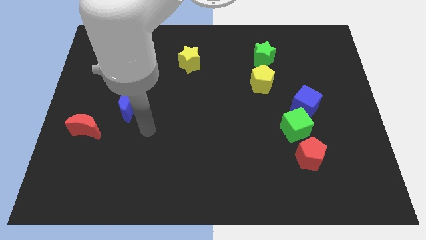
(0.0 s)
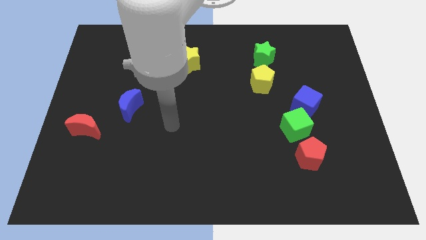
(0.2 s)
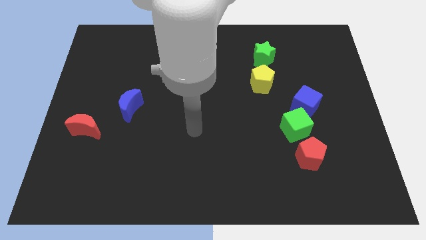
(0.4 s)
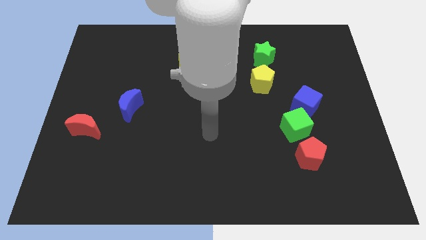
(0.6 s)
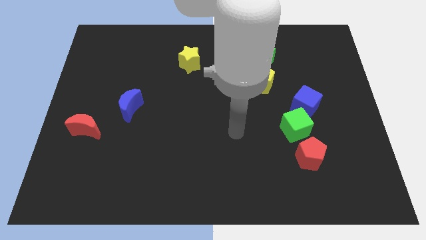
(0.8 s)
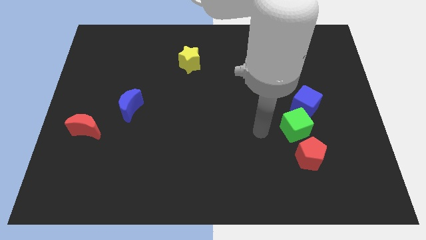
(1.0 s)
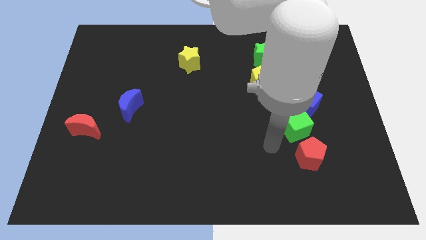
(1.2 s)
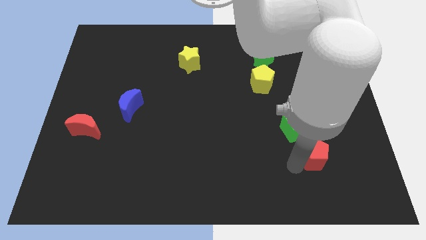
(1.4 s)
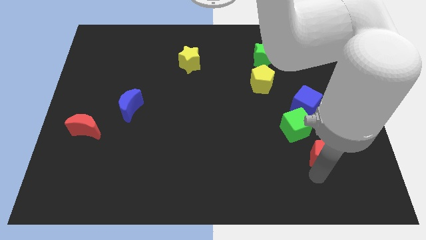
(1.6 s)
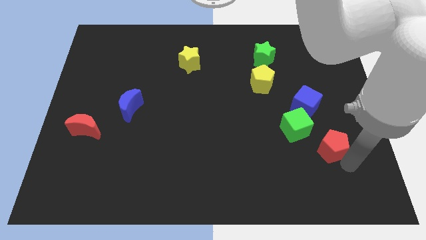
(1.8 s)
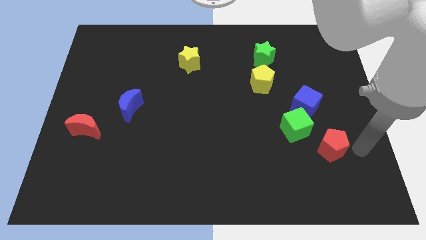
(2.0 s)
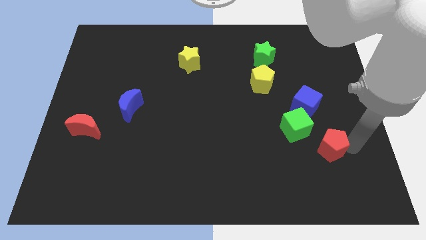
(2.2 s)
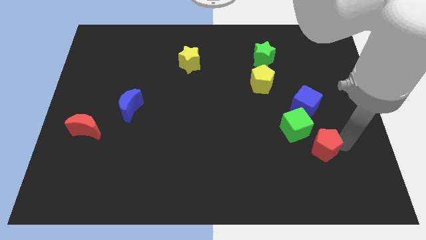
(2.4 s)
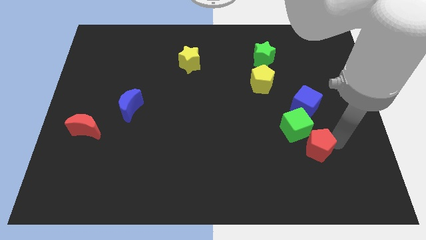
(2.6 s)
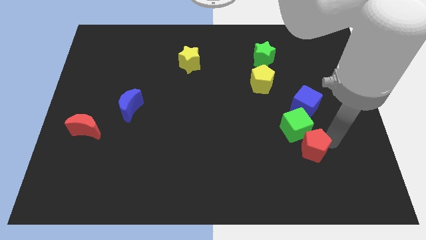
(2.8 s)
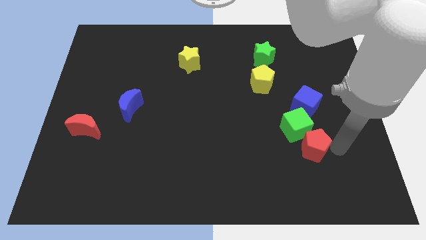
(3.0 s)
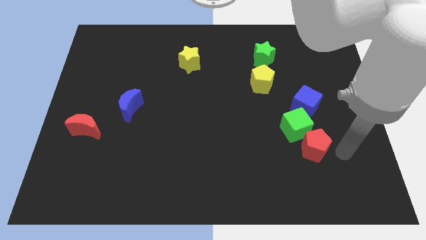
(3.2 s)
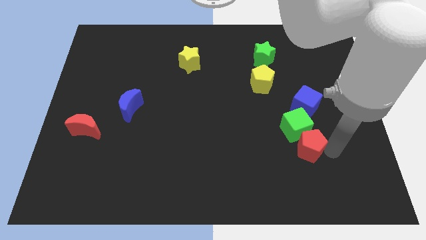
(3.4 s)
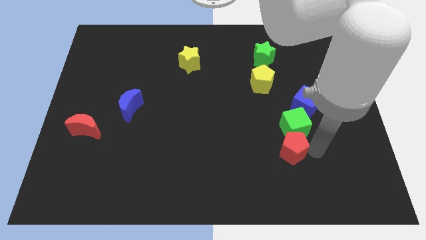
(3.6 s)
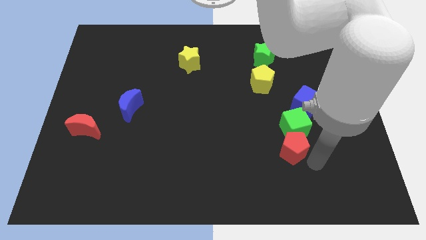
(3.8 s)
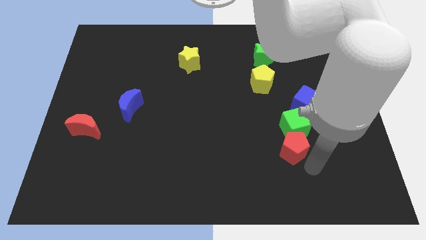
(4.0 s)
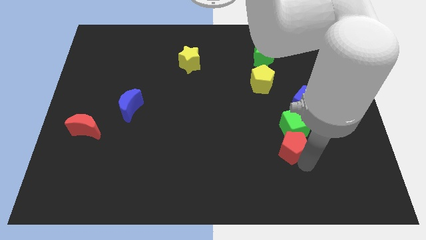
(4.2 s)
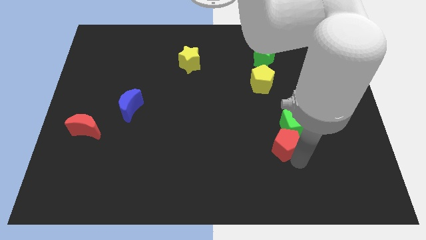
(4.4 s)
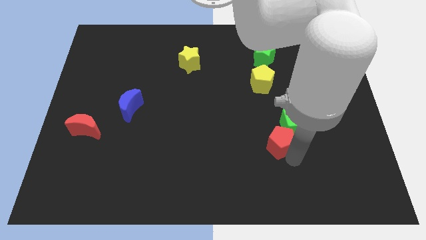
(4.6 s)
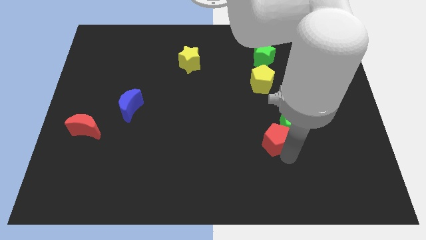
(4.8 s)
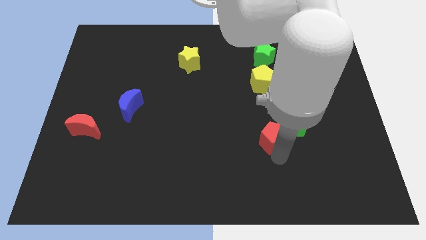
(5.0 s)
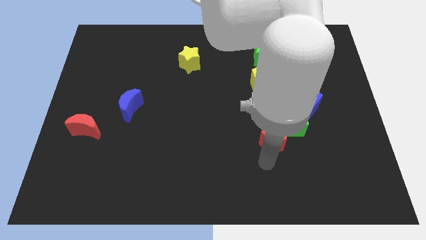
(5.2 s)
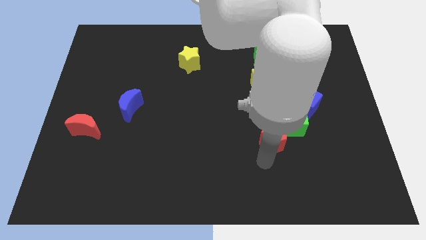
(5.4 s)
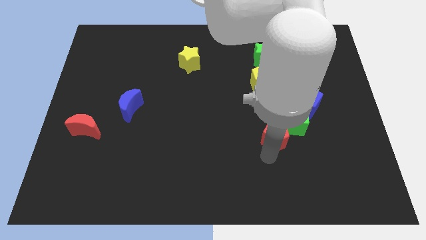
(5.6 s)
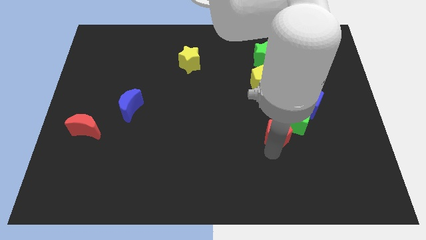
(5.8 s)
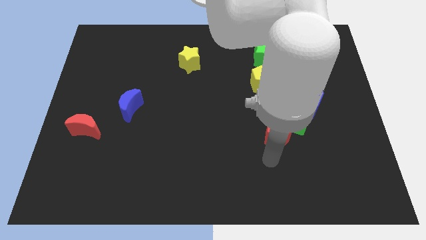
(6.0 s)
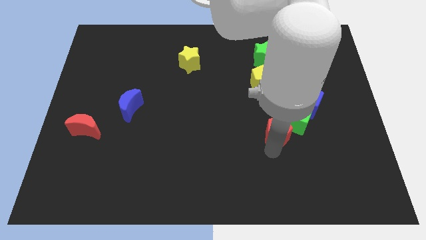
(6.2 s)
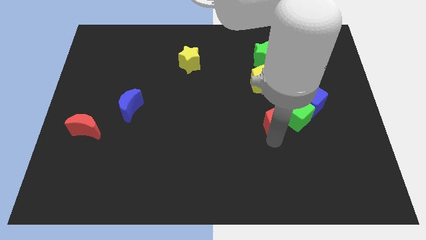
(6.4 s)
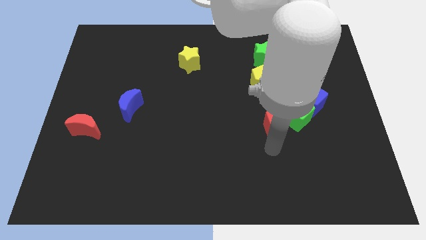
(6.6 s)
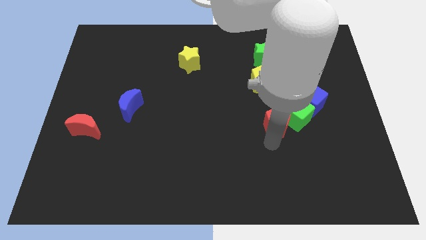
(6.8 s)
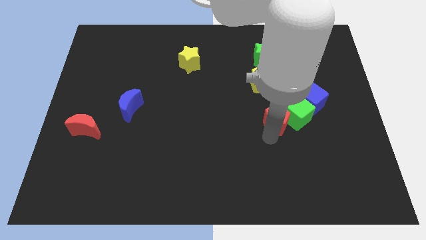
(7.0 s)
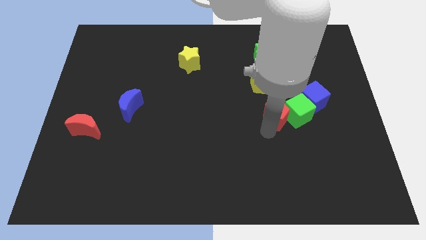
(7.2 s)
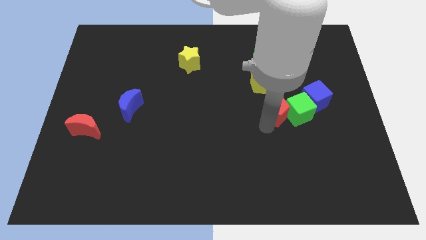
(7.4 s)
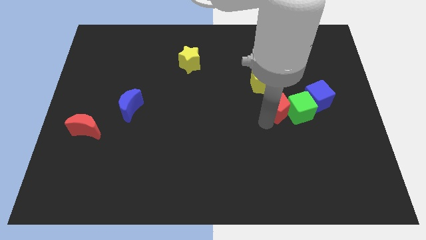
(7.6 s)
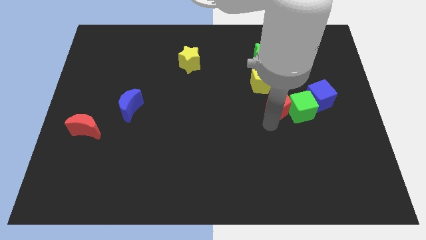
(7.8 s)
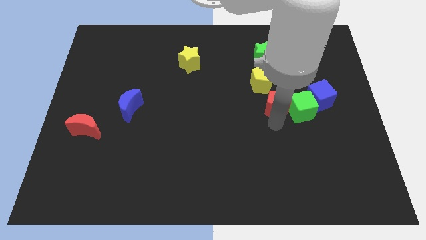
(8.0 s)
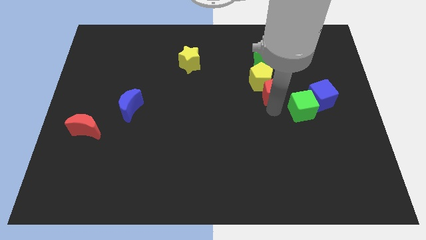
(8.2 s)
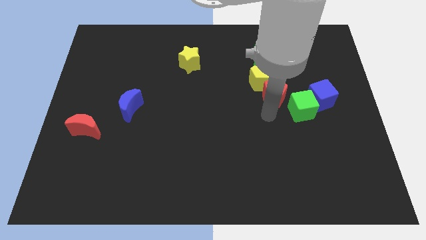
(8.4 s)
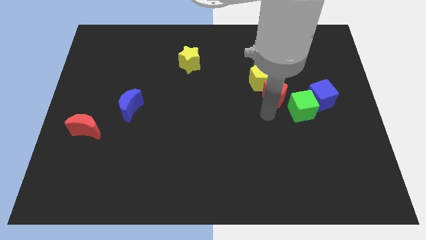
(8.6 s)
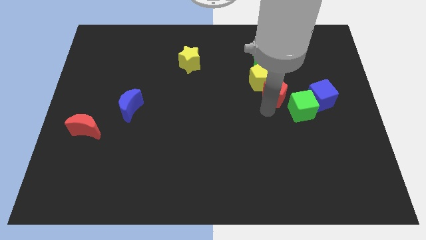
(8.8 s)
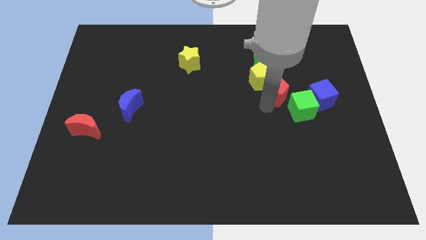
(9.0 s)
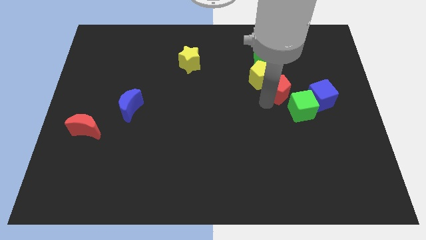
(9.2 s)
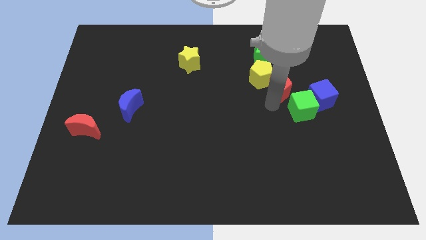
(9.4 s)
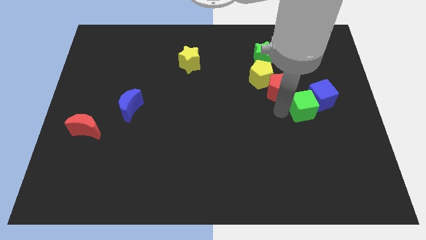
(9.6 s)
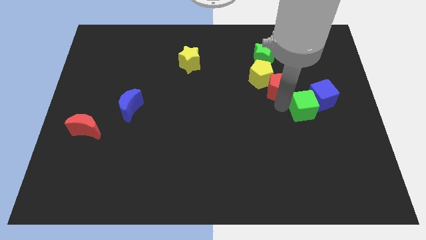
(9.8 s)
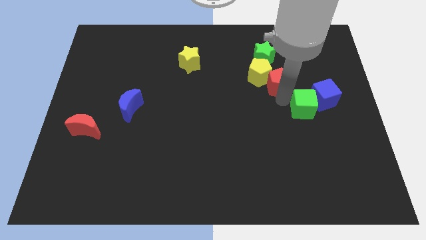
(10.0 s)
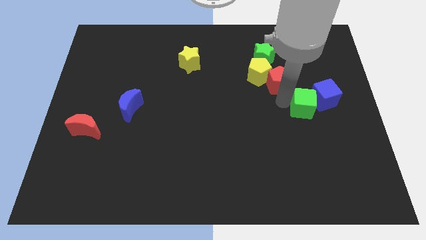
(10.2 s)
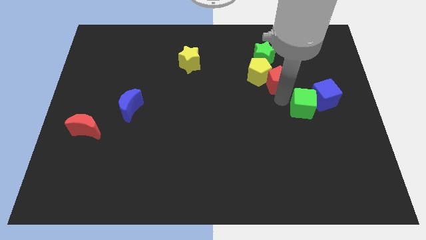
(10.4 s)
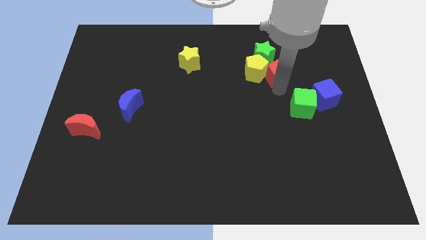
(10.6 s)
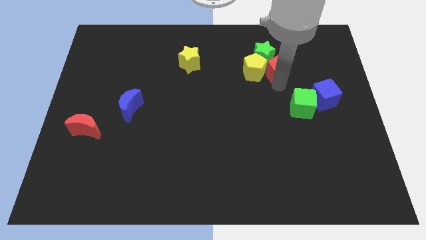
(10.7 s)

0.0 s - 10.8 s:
put the red pentagon next to the green star

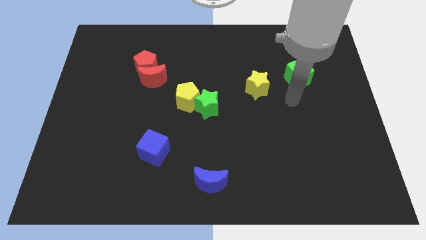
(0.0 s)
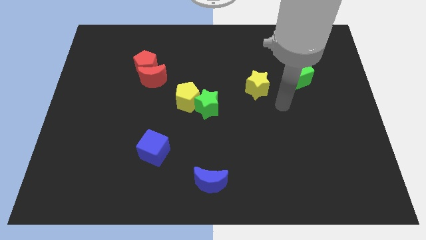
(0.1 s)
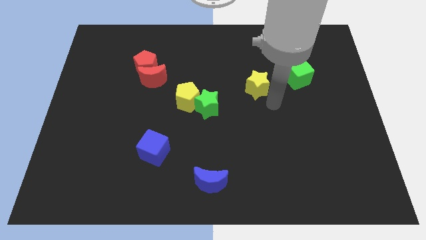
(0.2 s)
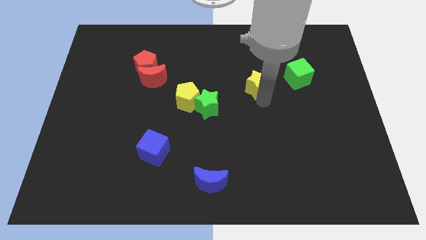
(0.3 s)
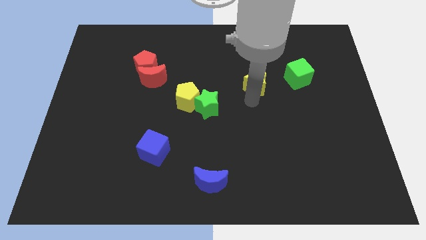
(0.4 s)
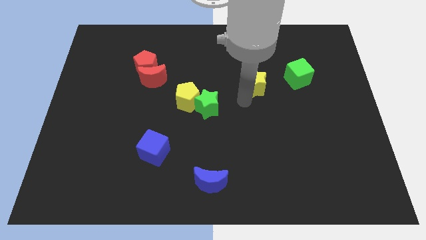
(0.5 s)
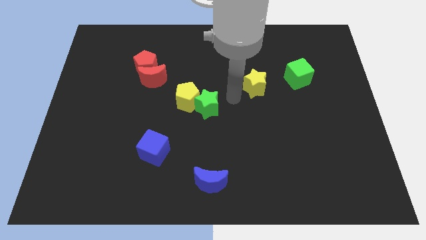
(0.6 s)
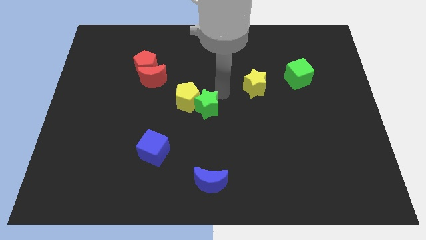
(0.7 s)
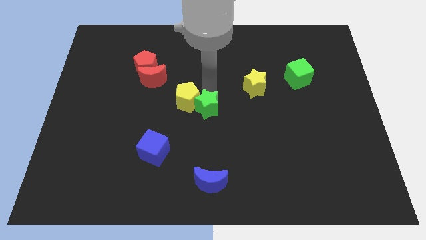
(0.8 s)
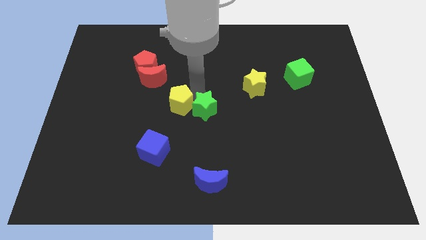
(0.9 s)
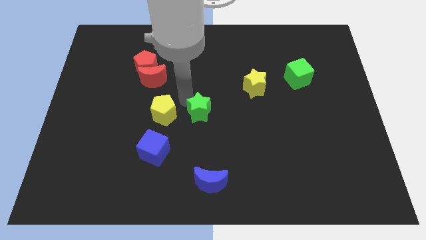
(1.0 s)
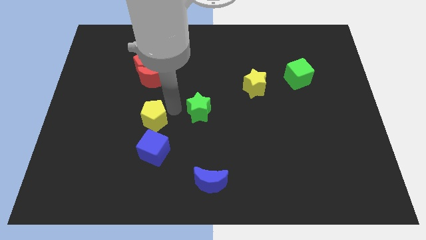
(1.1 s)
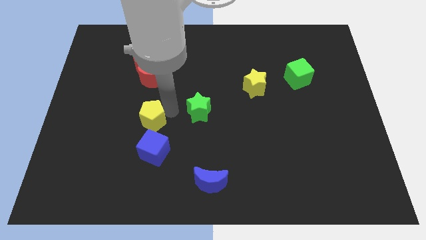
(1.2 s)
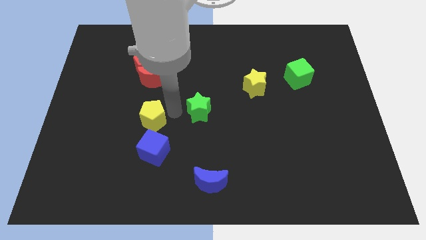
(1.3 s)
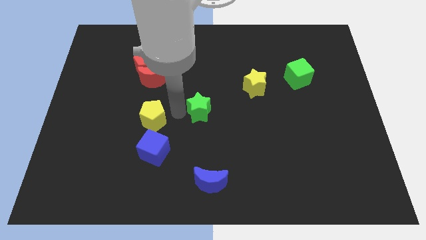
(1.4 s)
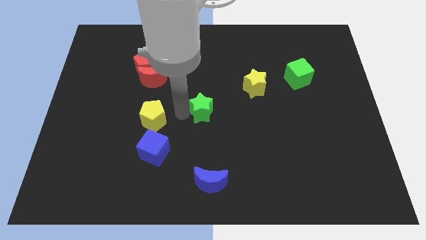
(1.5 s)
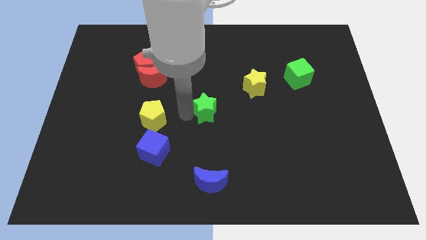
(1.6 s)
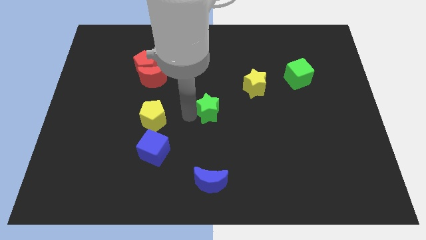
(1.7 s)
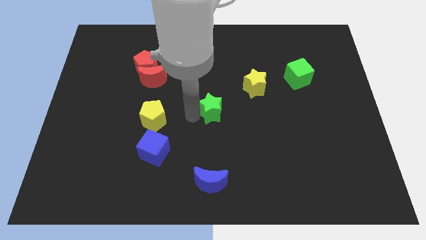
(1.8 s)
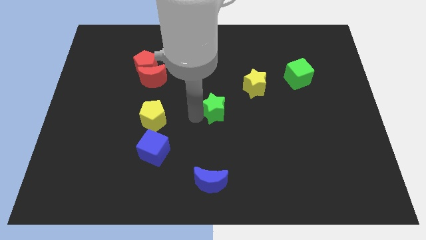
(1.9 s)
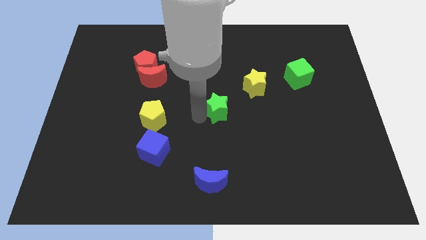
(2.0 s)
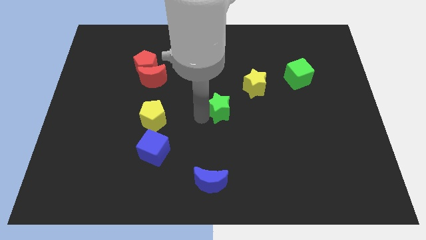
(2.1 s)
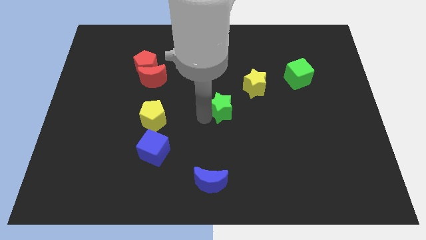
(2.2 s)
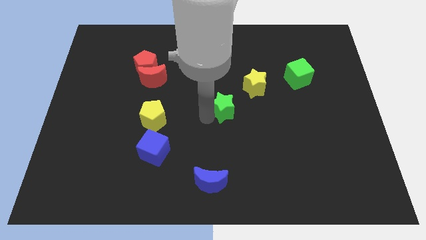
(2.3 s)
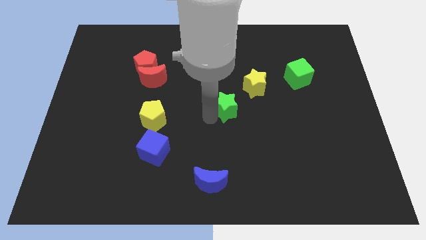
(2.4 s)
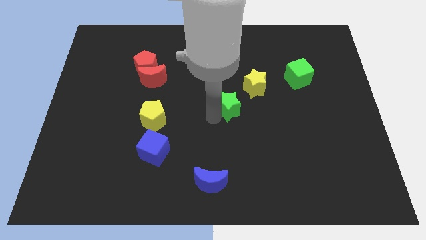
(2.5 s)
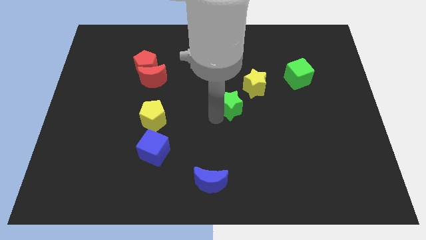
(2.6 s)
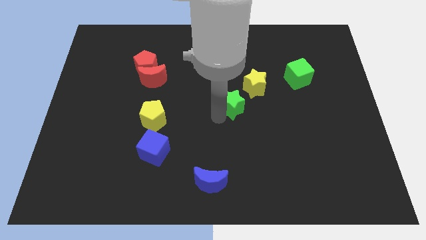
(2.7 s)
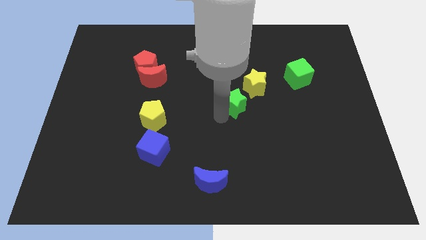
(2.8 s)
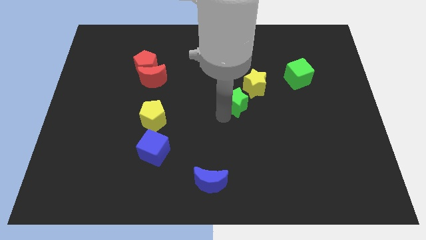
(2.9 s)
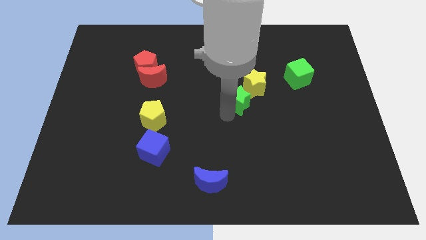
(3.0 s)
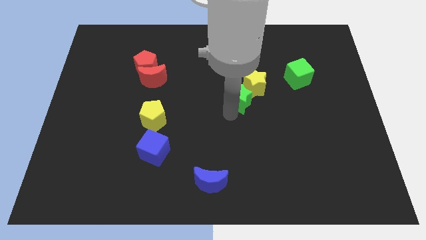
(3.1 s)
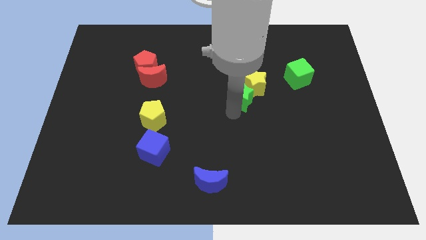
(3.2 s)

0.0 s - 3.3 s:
put the green star close to the yellow star
